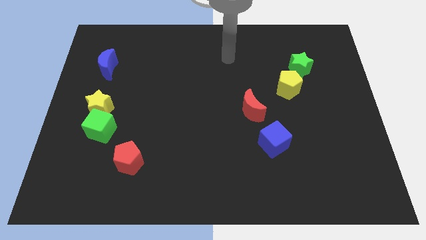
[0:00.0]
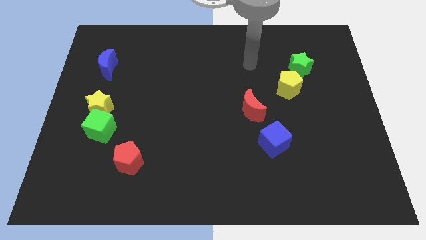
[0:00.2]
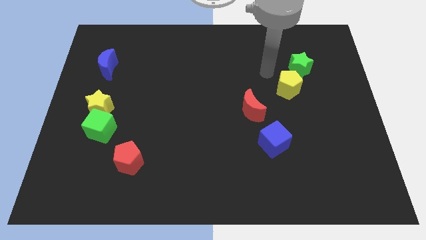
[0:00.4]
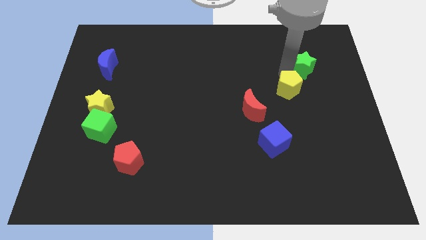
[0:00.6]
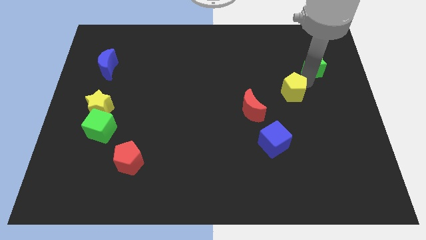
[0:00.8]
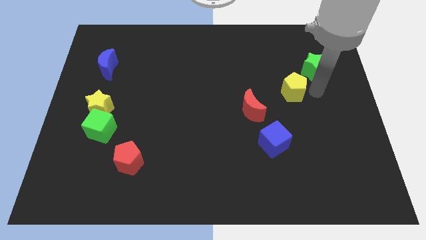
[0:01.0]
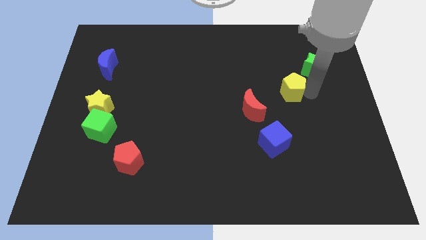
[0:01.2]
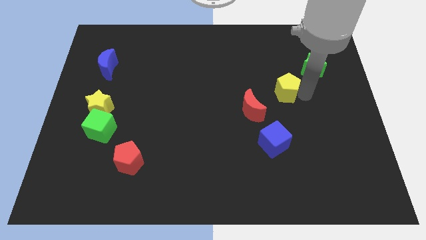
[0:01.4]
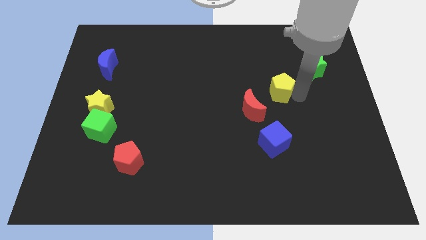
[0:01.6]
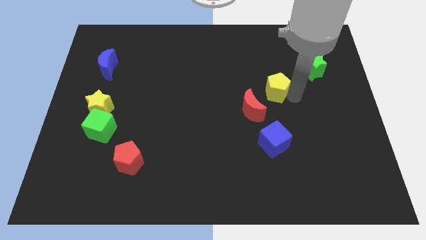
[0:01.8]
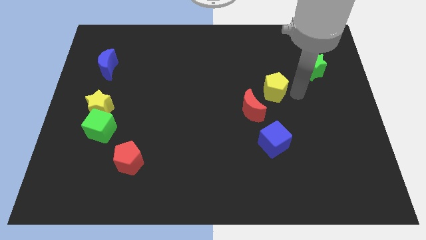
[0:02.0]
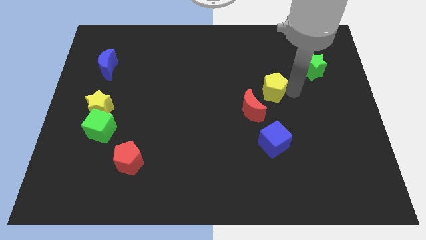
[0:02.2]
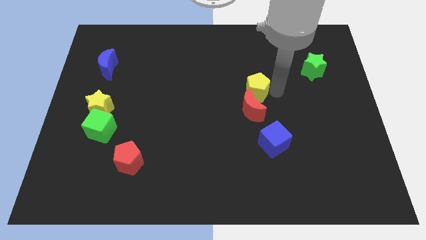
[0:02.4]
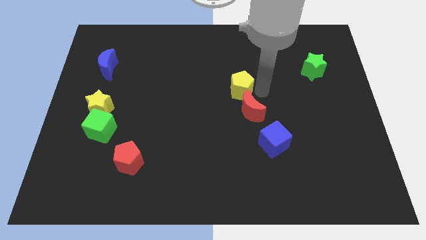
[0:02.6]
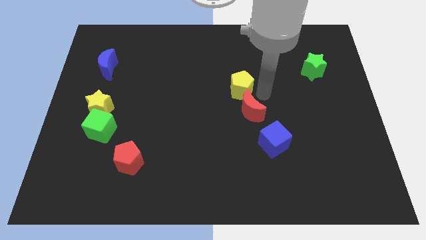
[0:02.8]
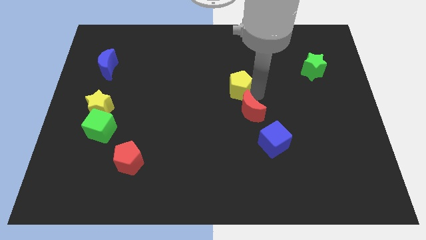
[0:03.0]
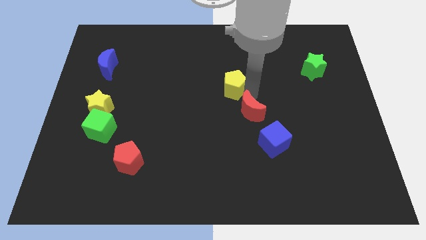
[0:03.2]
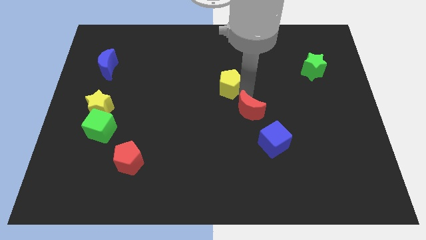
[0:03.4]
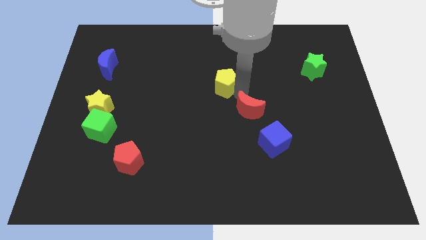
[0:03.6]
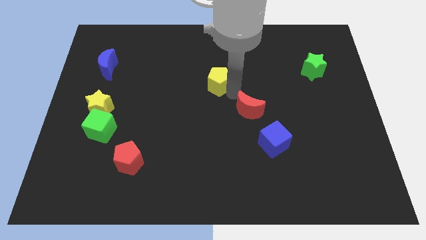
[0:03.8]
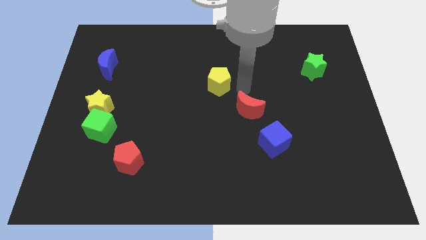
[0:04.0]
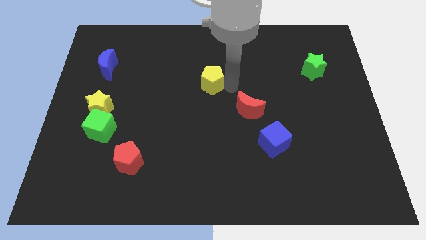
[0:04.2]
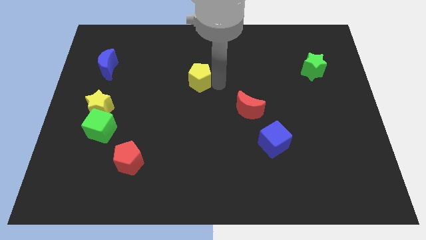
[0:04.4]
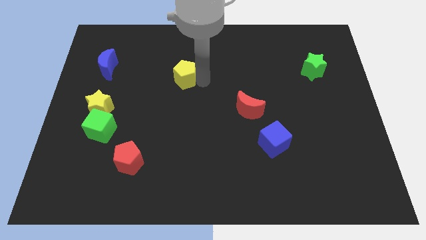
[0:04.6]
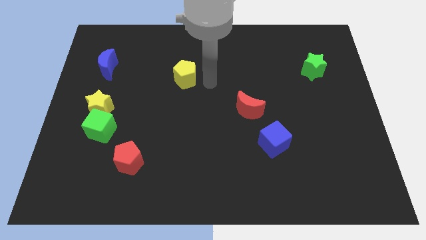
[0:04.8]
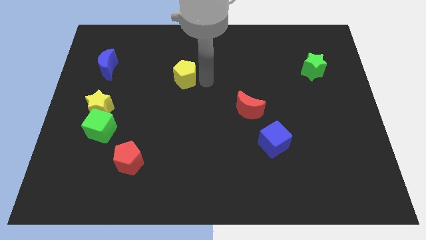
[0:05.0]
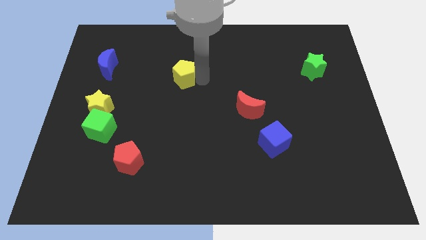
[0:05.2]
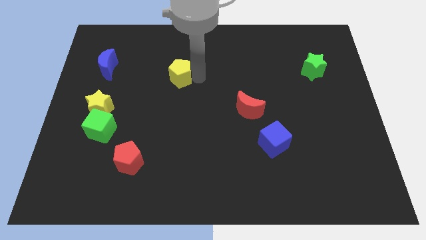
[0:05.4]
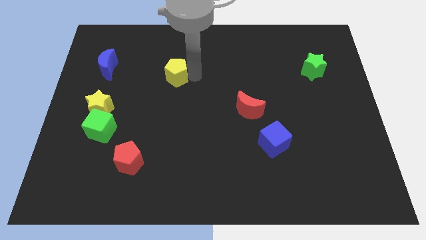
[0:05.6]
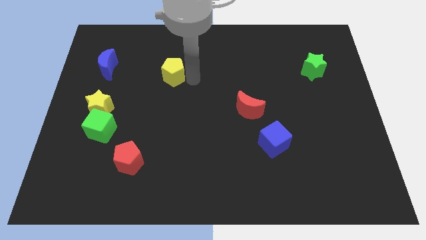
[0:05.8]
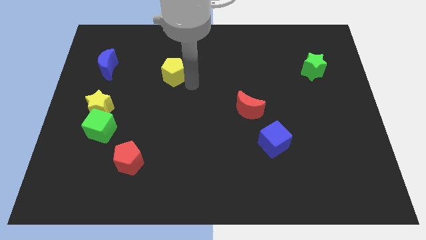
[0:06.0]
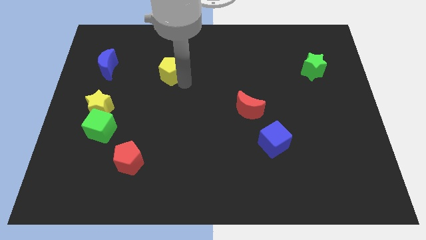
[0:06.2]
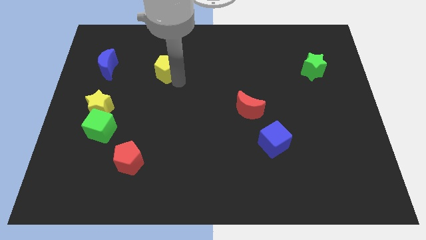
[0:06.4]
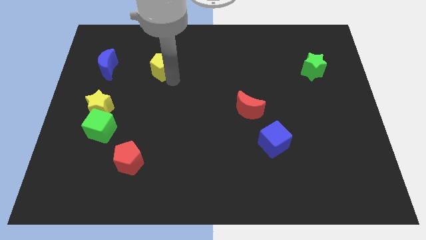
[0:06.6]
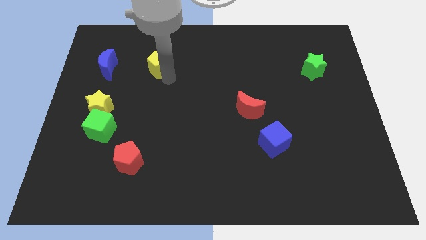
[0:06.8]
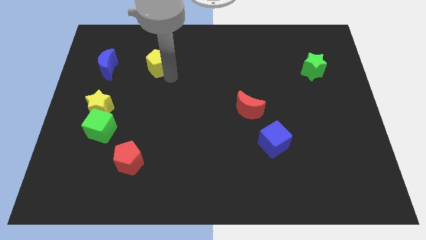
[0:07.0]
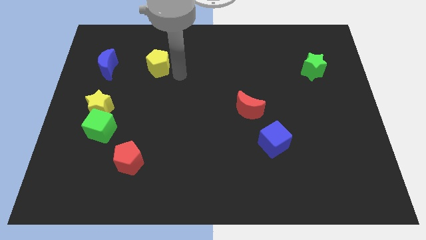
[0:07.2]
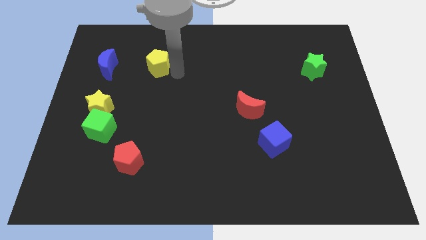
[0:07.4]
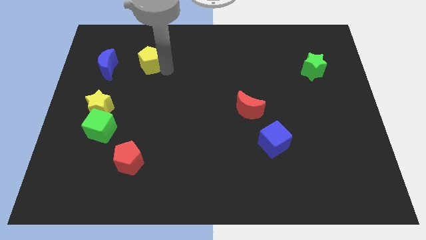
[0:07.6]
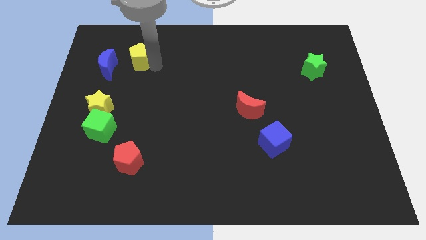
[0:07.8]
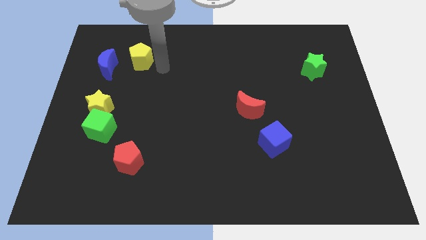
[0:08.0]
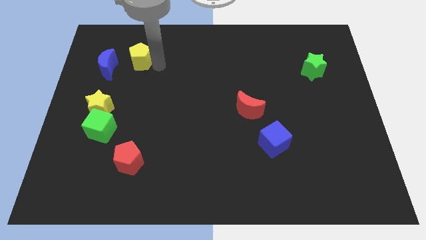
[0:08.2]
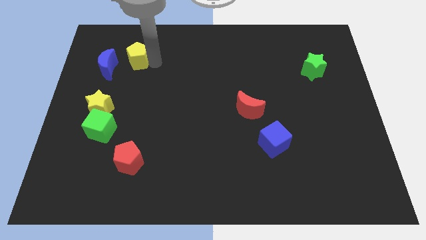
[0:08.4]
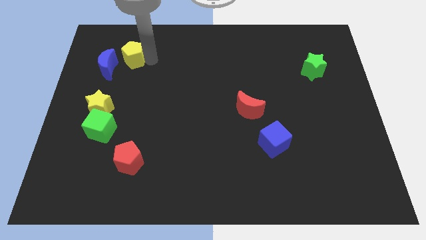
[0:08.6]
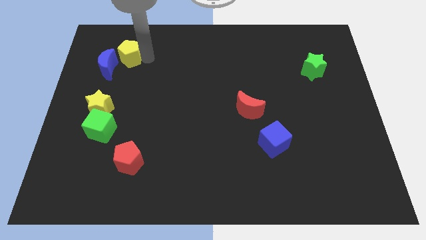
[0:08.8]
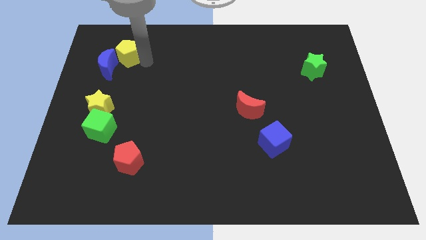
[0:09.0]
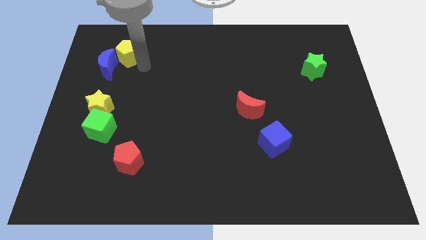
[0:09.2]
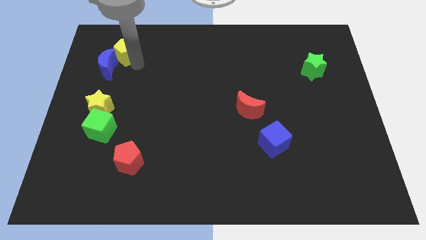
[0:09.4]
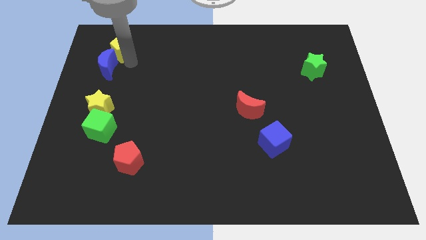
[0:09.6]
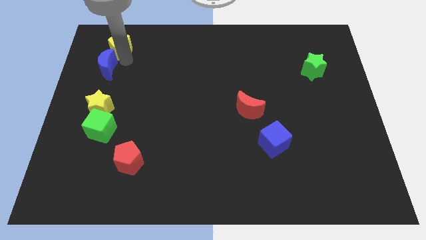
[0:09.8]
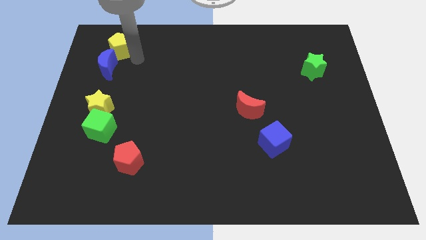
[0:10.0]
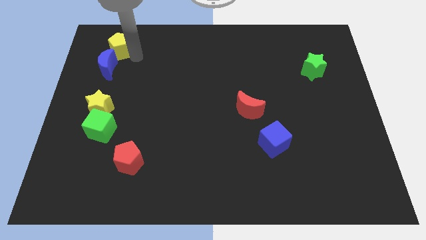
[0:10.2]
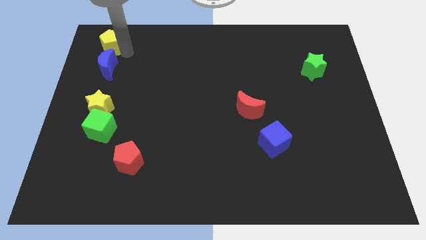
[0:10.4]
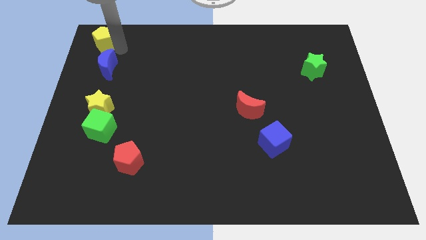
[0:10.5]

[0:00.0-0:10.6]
put the yellow pentagon to the top left of the board

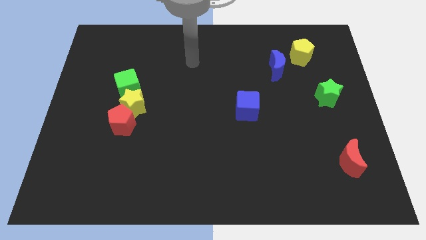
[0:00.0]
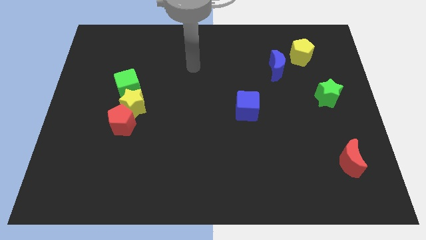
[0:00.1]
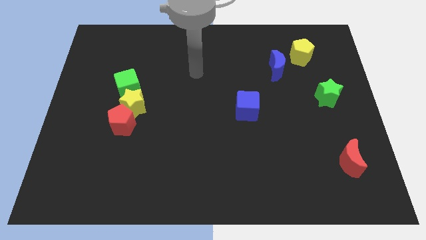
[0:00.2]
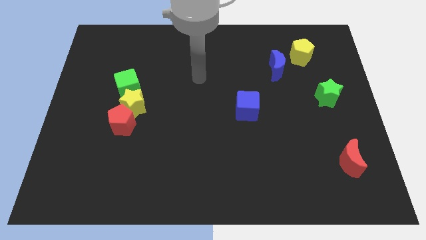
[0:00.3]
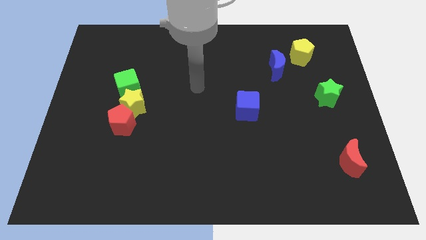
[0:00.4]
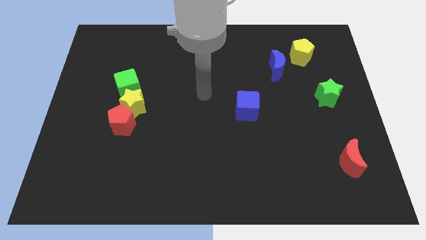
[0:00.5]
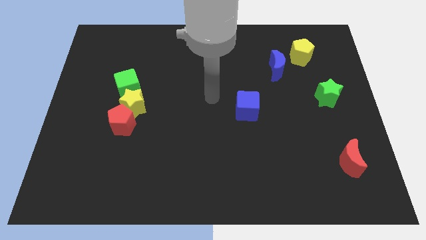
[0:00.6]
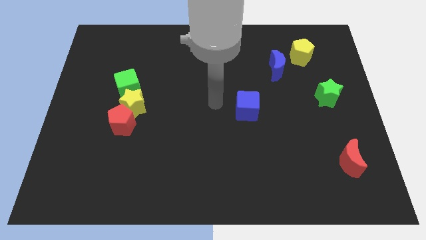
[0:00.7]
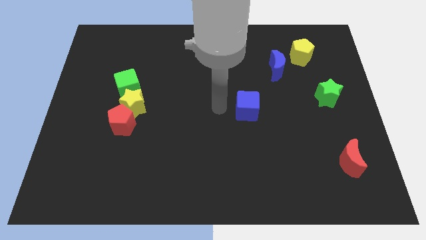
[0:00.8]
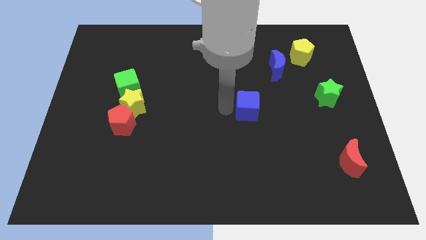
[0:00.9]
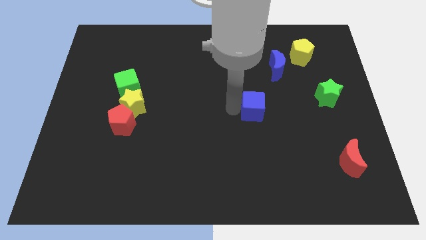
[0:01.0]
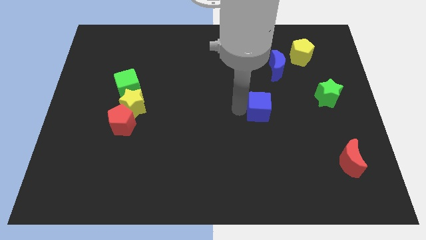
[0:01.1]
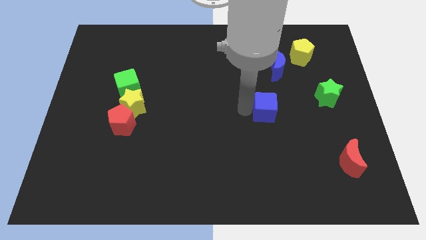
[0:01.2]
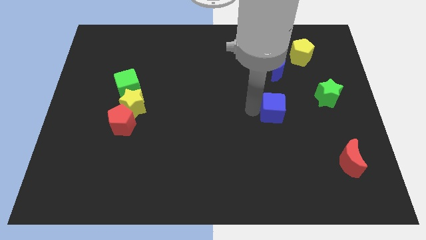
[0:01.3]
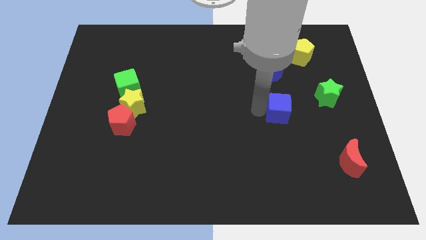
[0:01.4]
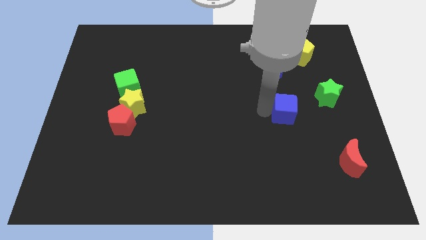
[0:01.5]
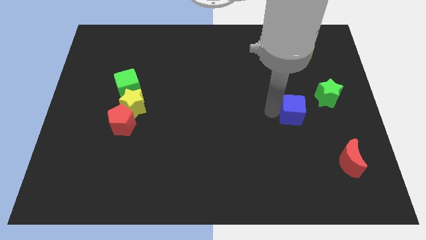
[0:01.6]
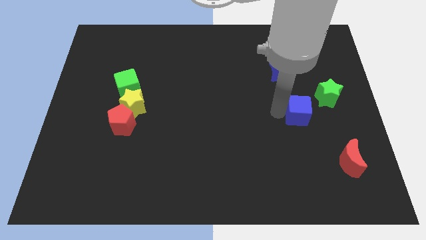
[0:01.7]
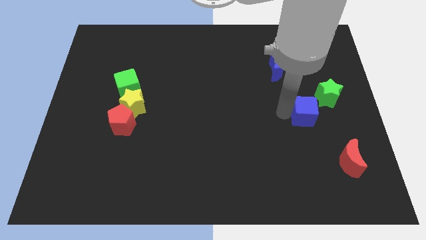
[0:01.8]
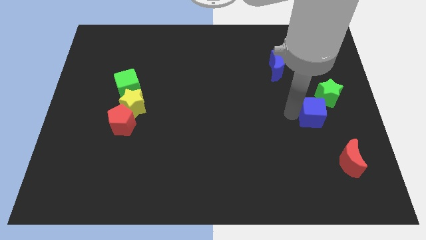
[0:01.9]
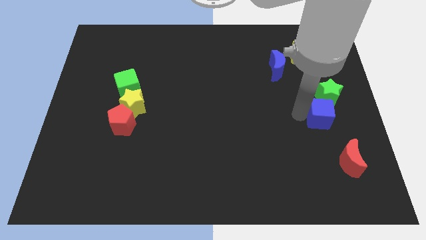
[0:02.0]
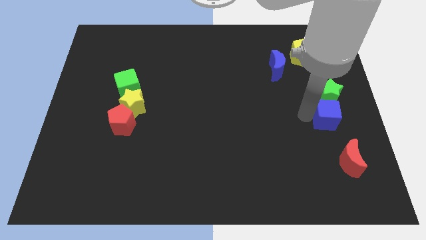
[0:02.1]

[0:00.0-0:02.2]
put the blue cube to the right side
